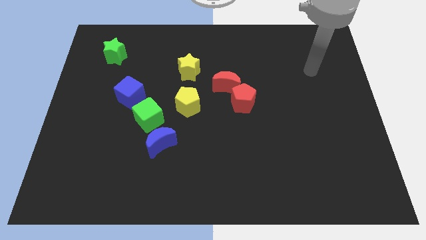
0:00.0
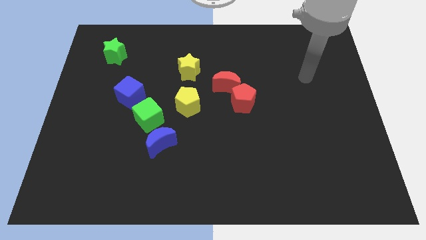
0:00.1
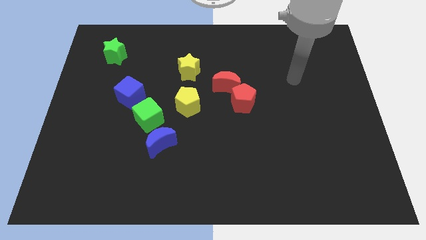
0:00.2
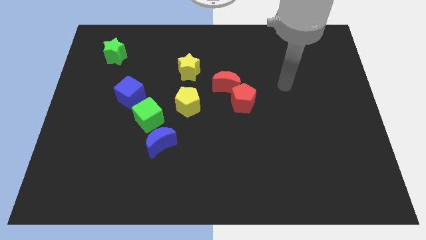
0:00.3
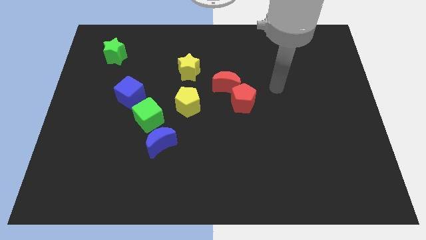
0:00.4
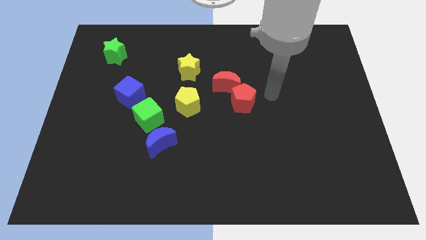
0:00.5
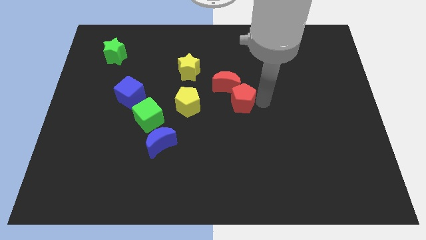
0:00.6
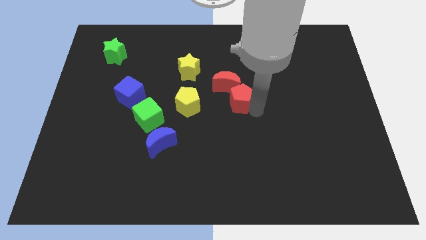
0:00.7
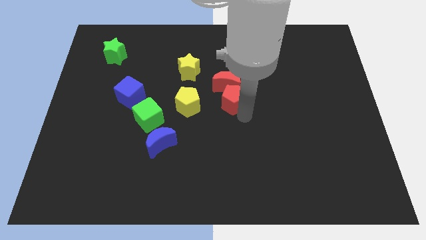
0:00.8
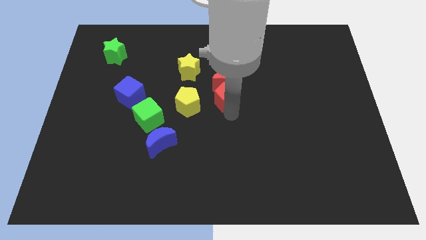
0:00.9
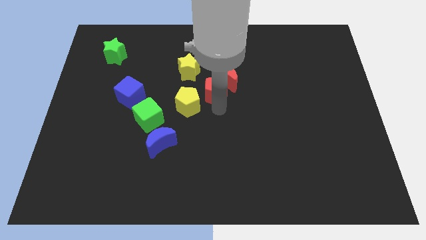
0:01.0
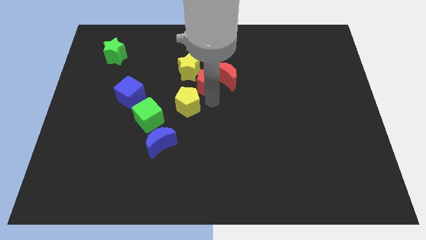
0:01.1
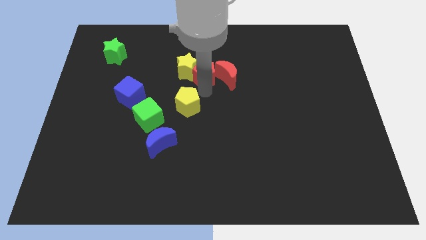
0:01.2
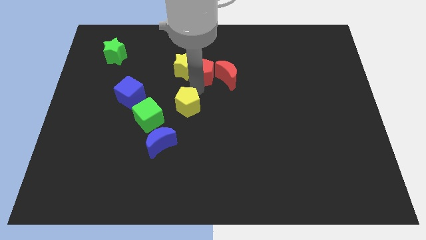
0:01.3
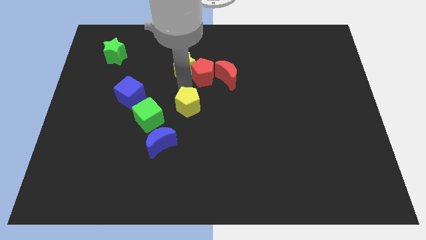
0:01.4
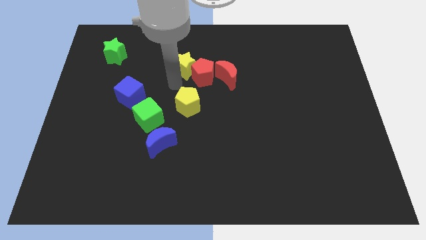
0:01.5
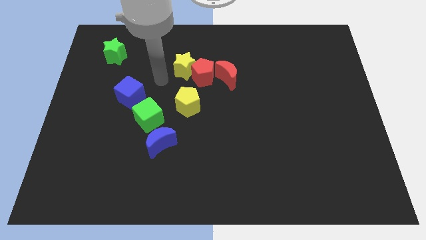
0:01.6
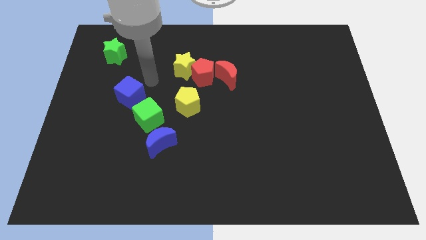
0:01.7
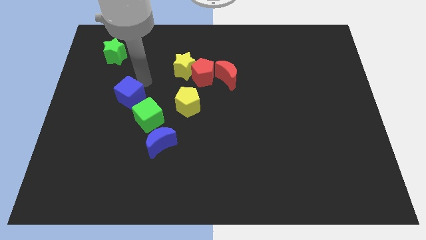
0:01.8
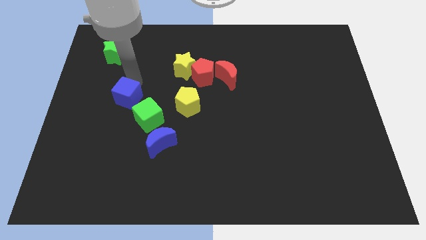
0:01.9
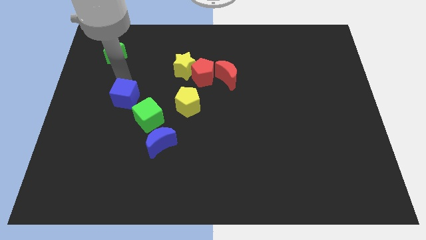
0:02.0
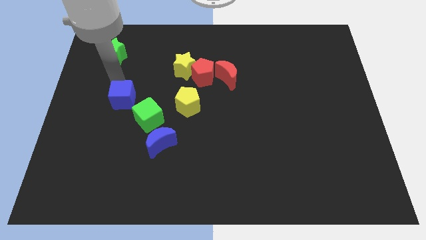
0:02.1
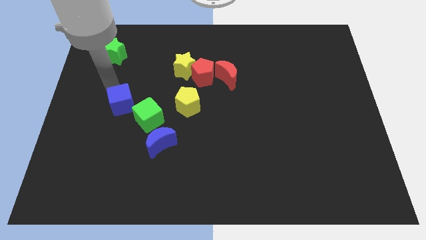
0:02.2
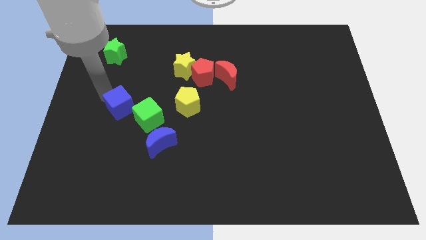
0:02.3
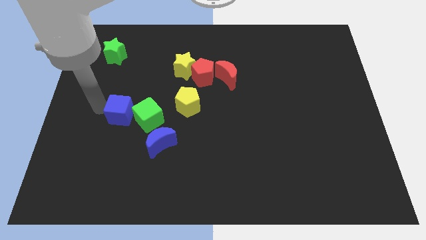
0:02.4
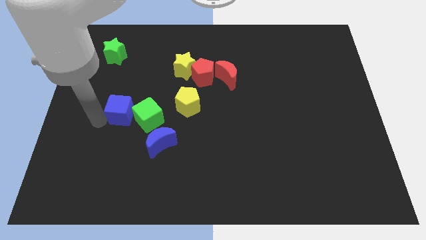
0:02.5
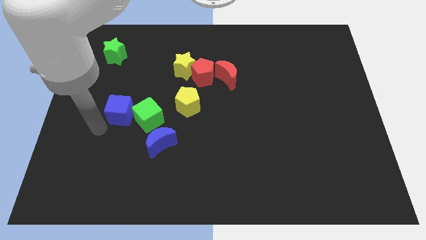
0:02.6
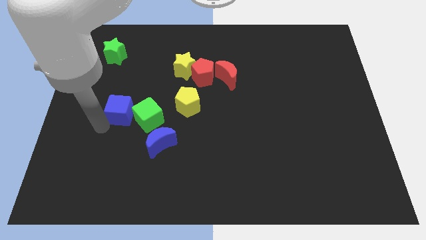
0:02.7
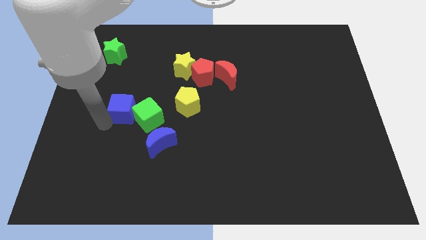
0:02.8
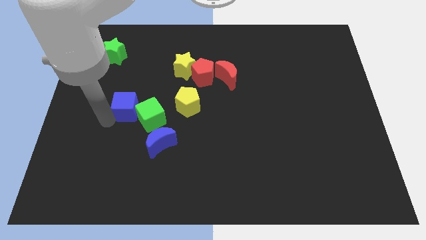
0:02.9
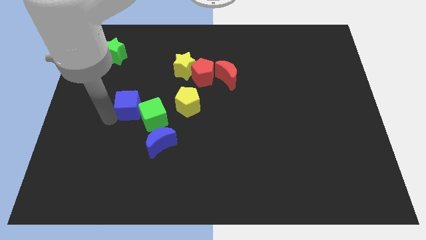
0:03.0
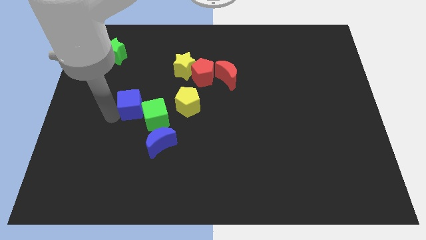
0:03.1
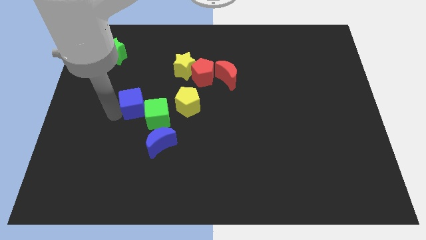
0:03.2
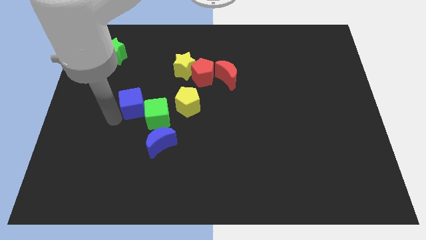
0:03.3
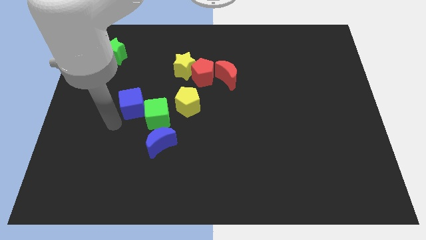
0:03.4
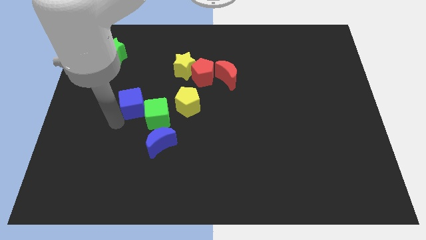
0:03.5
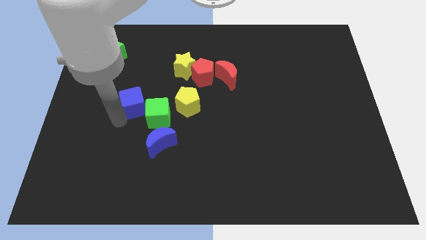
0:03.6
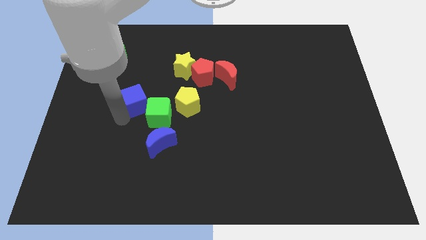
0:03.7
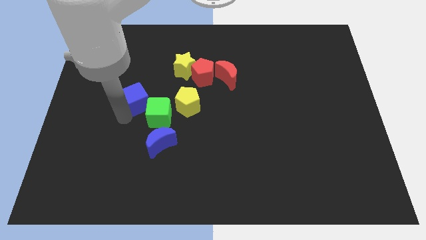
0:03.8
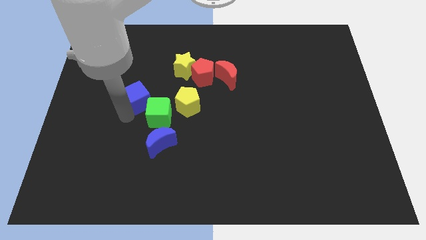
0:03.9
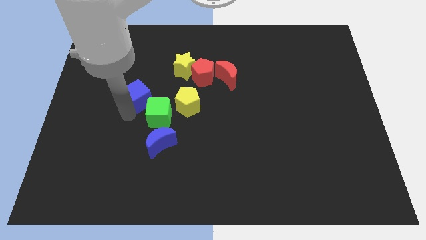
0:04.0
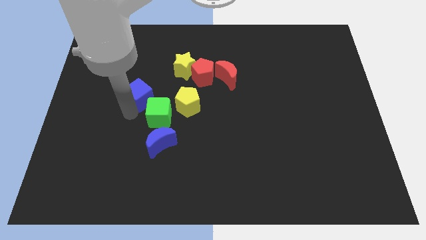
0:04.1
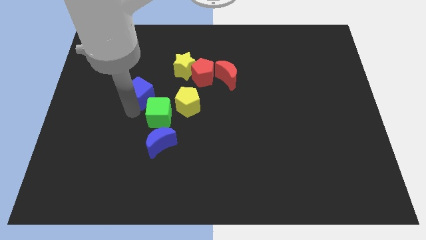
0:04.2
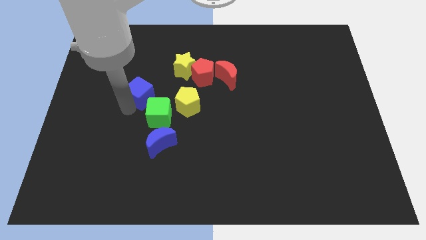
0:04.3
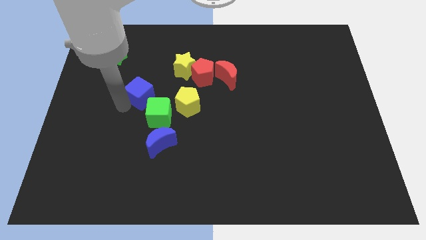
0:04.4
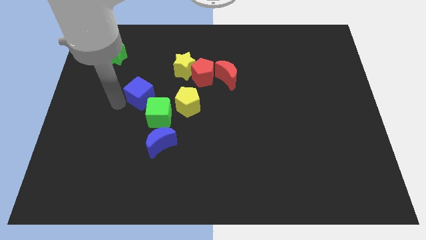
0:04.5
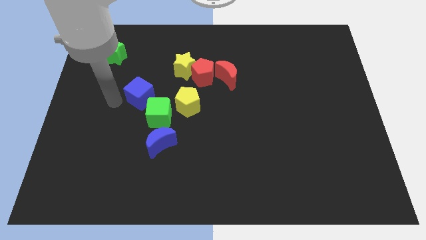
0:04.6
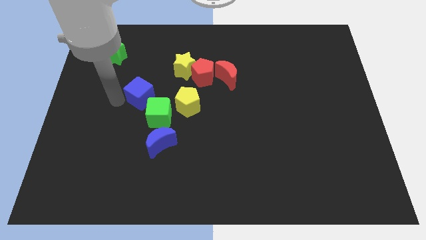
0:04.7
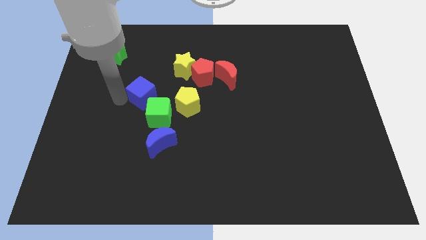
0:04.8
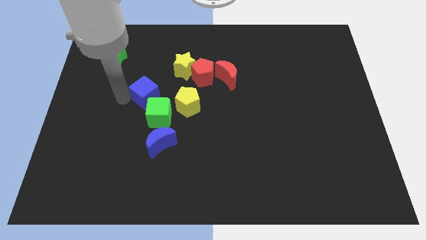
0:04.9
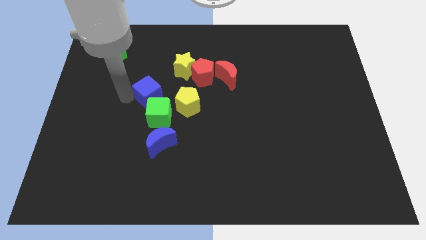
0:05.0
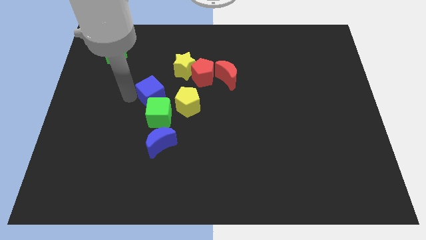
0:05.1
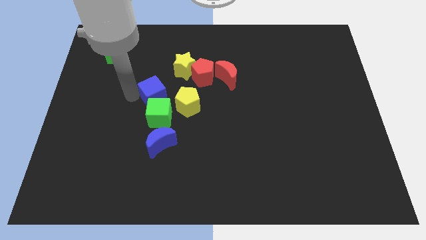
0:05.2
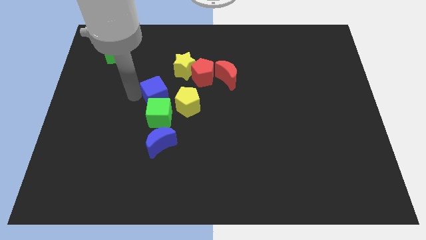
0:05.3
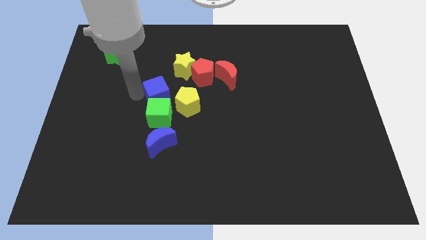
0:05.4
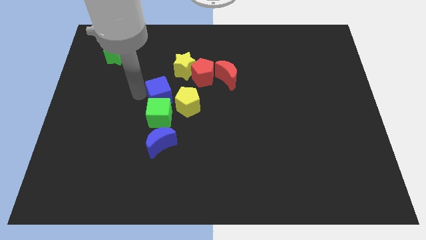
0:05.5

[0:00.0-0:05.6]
move the blue cube right slightly

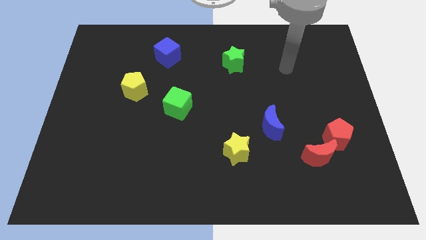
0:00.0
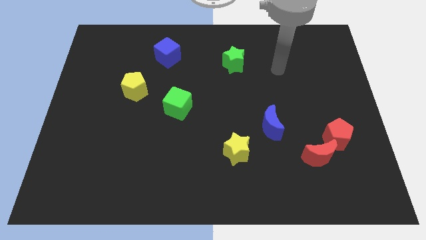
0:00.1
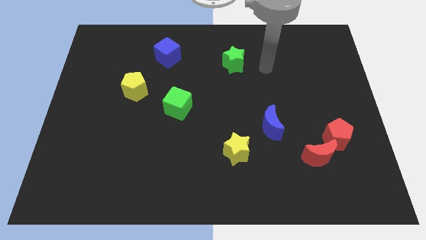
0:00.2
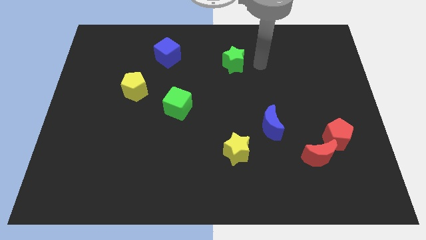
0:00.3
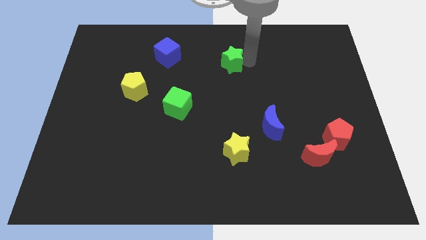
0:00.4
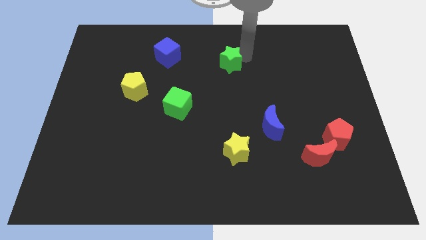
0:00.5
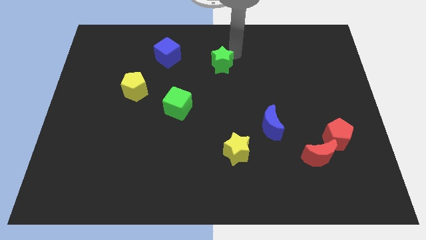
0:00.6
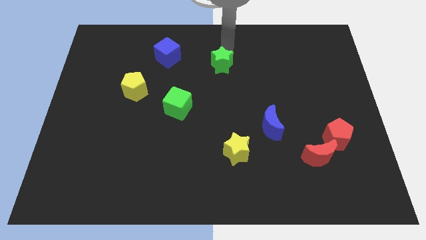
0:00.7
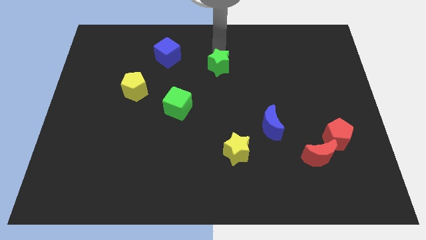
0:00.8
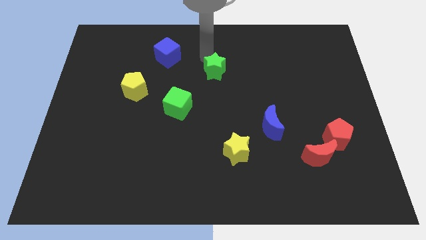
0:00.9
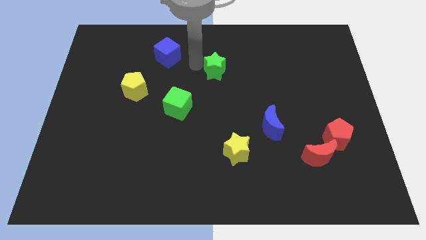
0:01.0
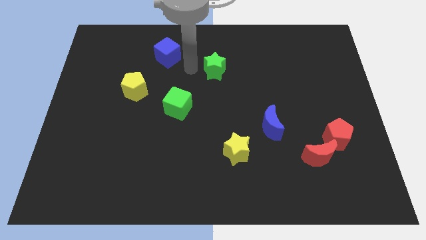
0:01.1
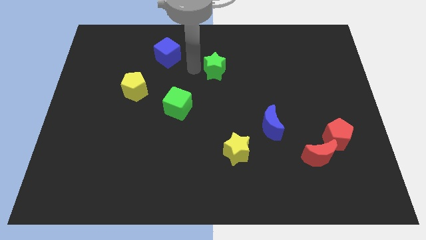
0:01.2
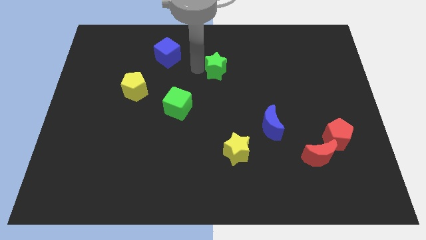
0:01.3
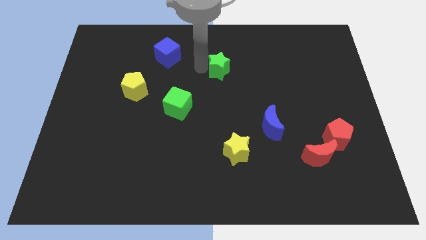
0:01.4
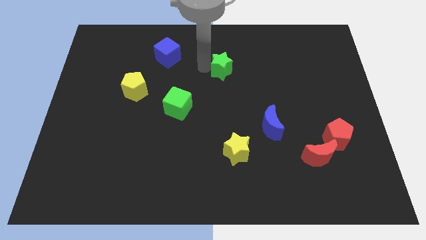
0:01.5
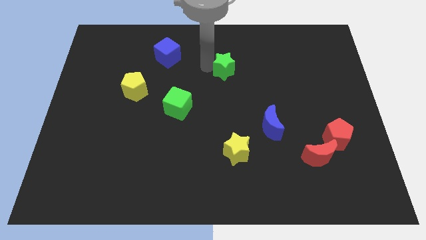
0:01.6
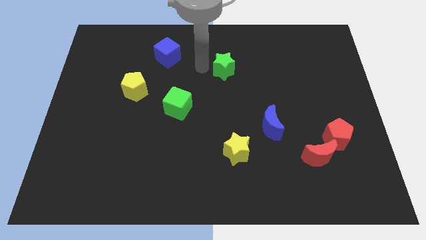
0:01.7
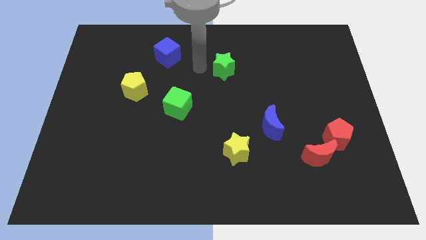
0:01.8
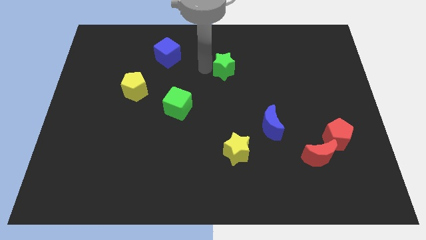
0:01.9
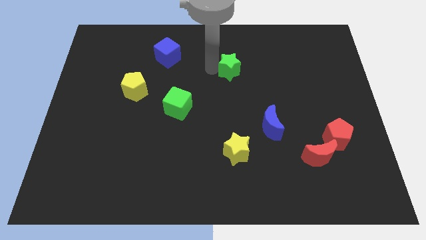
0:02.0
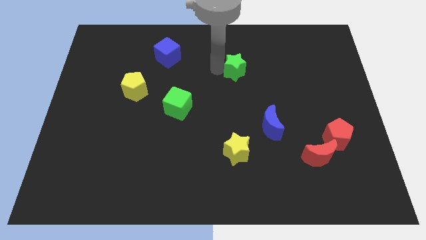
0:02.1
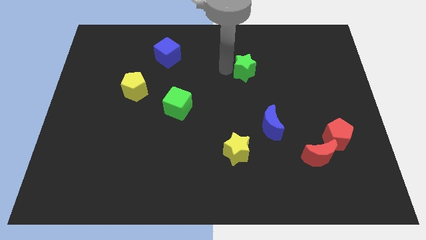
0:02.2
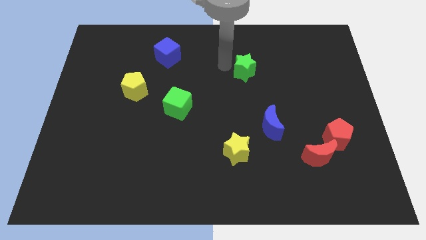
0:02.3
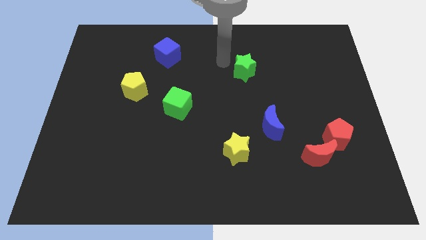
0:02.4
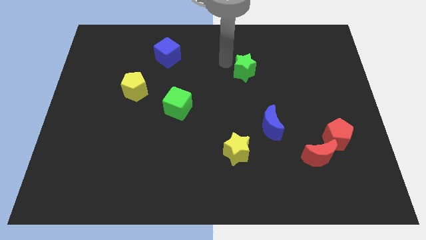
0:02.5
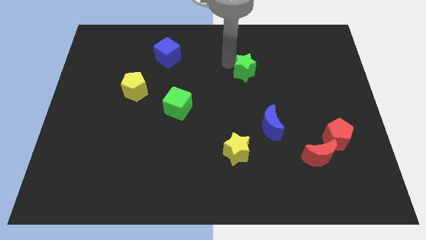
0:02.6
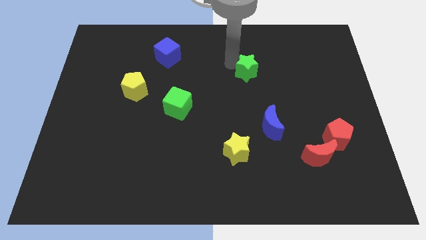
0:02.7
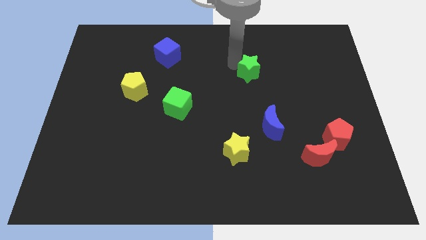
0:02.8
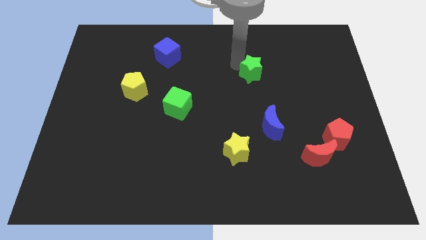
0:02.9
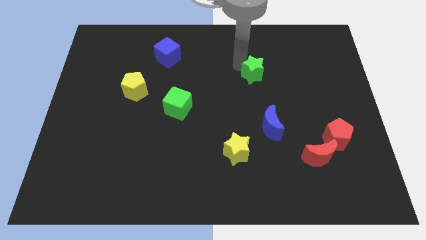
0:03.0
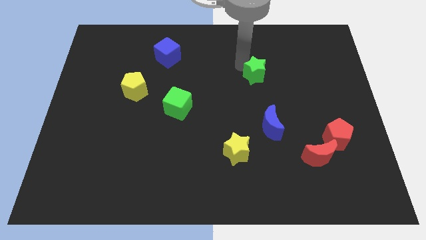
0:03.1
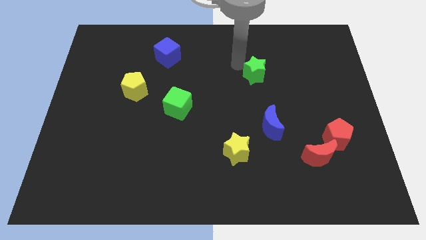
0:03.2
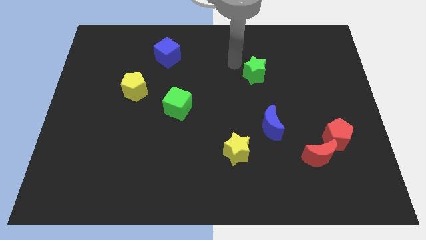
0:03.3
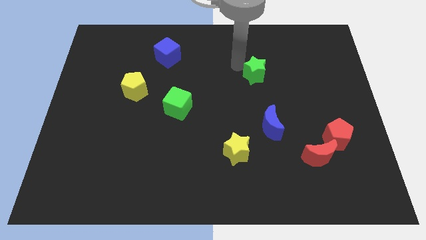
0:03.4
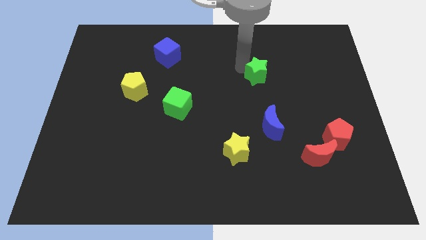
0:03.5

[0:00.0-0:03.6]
slide the green star a little diagonally downwards and right
